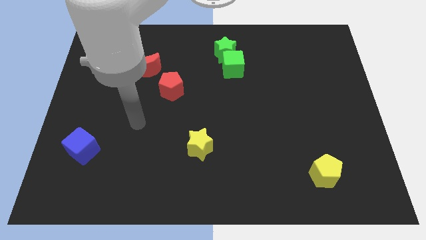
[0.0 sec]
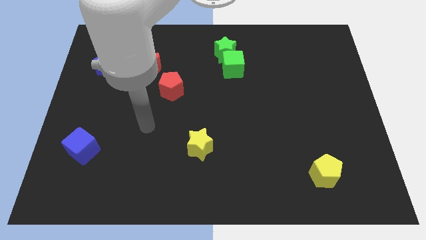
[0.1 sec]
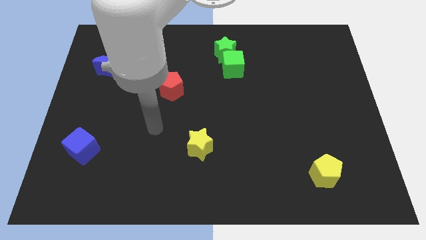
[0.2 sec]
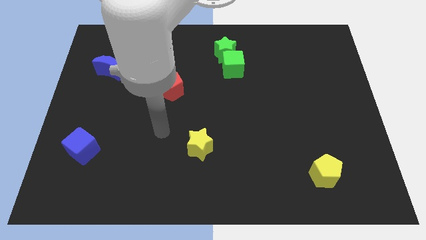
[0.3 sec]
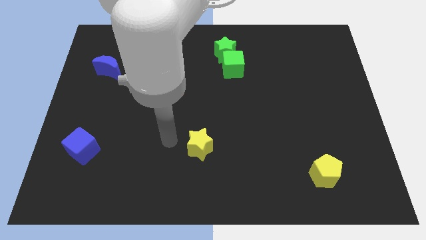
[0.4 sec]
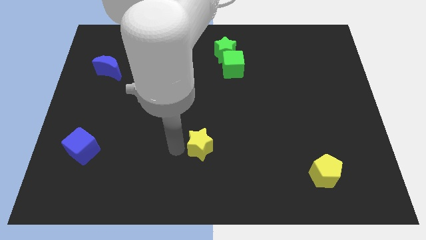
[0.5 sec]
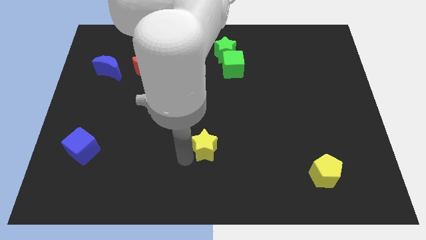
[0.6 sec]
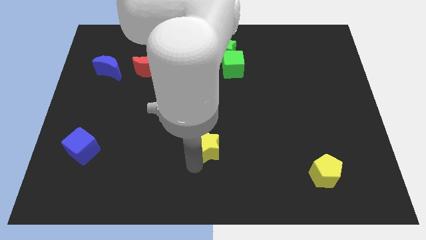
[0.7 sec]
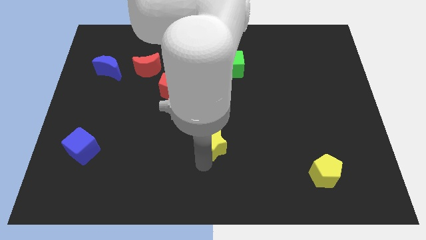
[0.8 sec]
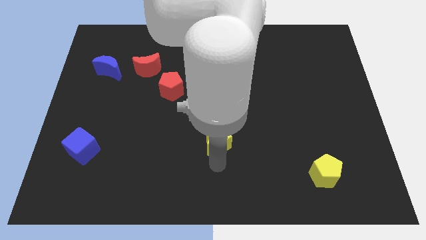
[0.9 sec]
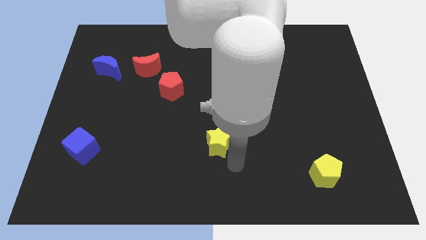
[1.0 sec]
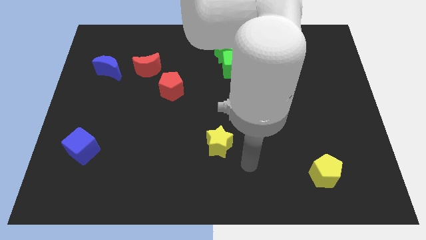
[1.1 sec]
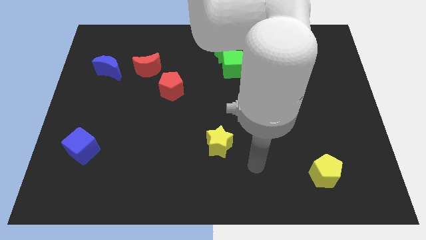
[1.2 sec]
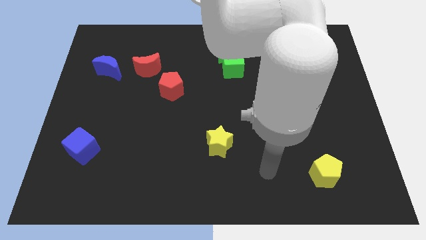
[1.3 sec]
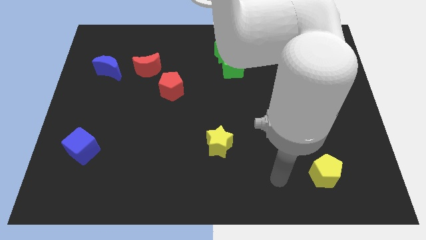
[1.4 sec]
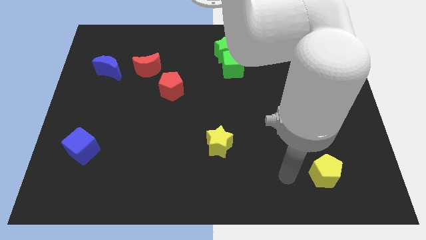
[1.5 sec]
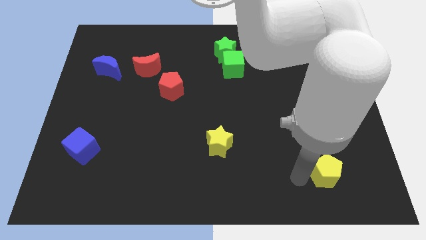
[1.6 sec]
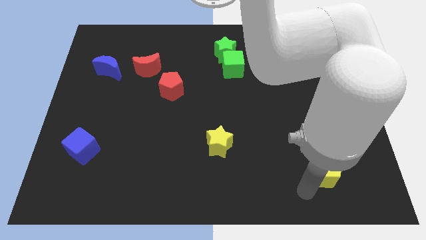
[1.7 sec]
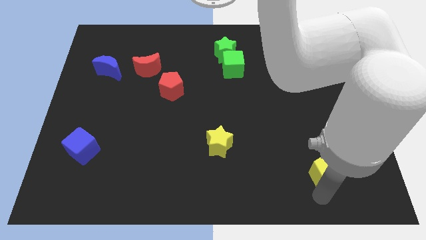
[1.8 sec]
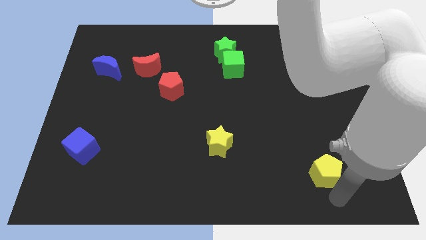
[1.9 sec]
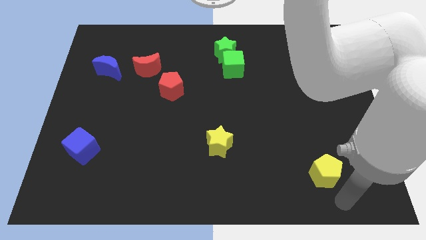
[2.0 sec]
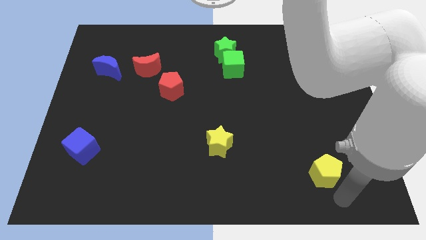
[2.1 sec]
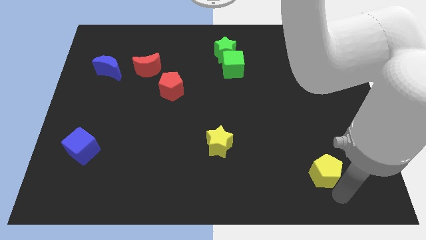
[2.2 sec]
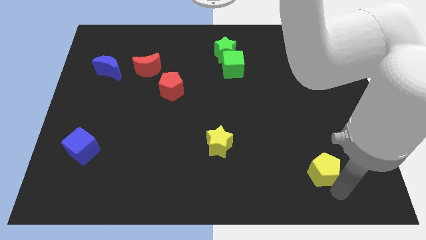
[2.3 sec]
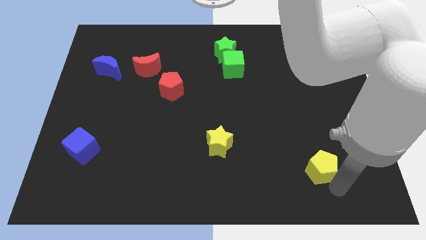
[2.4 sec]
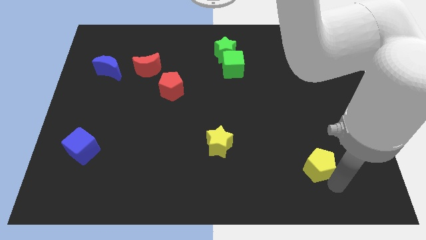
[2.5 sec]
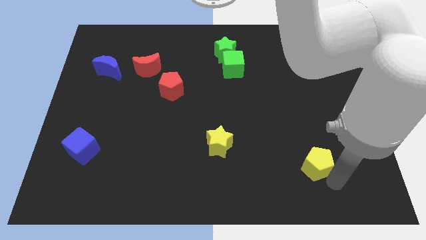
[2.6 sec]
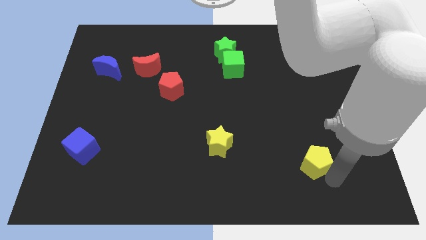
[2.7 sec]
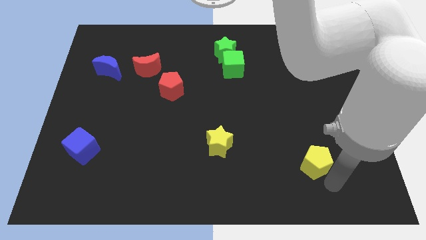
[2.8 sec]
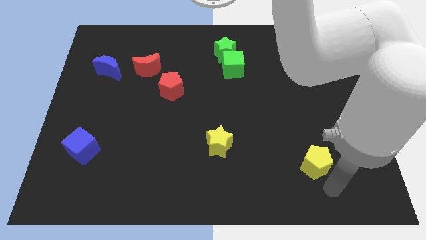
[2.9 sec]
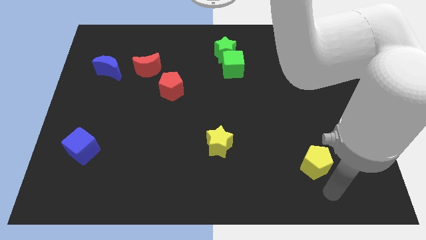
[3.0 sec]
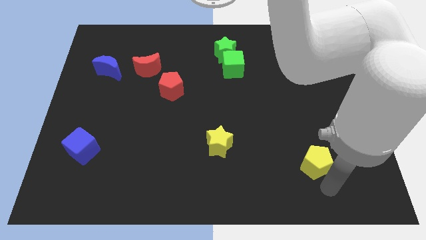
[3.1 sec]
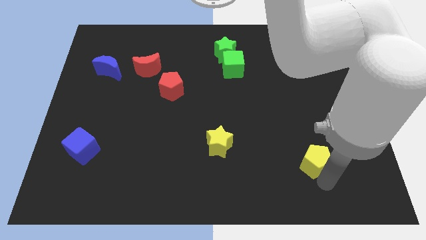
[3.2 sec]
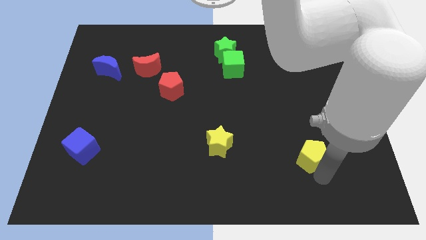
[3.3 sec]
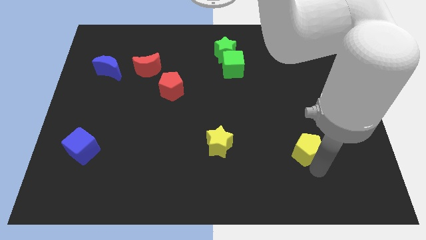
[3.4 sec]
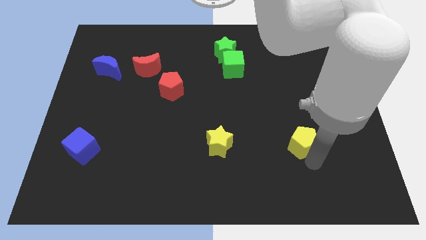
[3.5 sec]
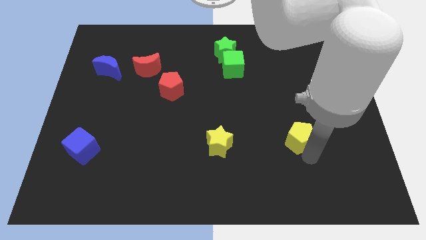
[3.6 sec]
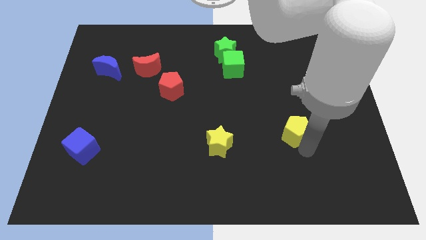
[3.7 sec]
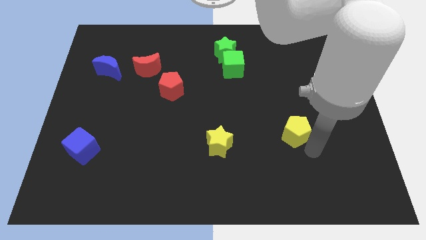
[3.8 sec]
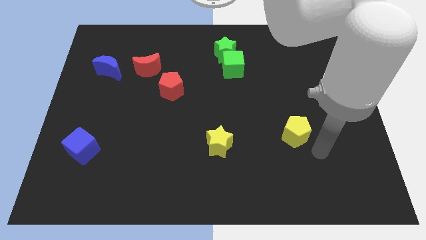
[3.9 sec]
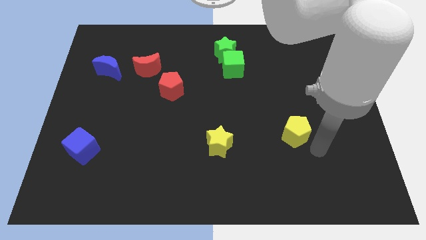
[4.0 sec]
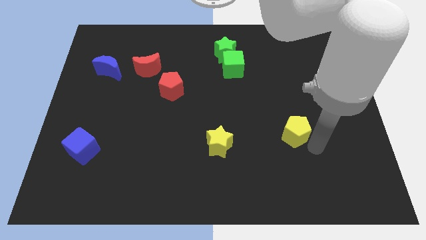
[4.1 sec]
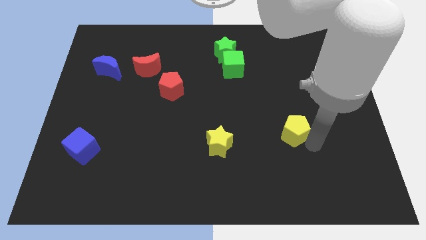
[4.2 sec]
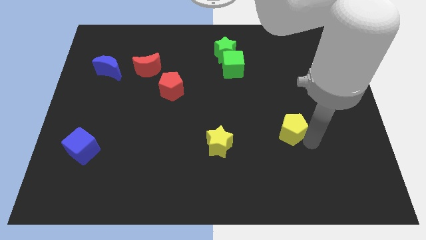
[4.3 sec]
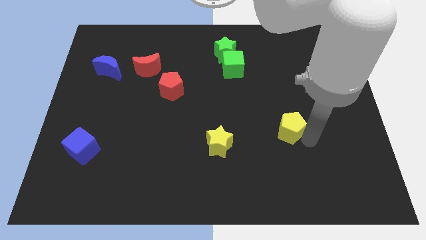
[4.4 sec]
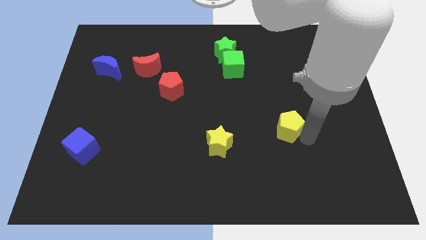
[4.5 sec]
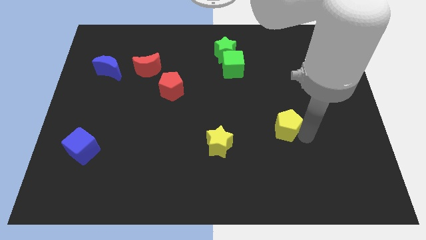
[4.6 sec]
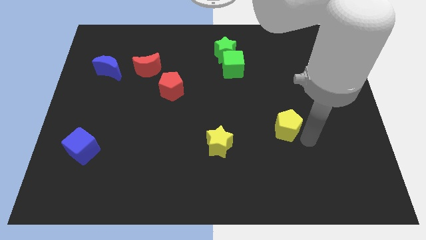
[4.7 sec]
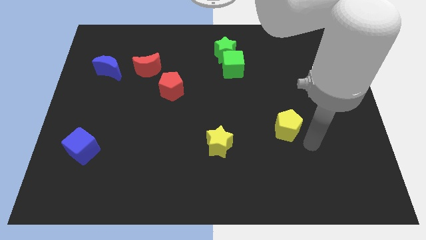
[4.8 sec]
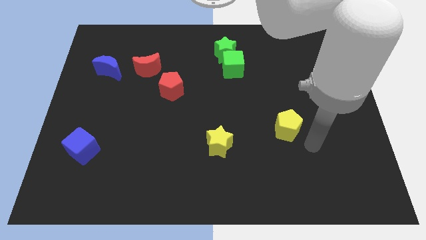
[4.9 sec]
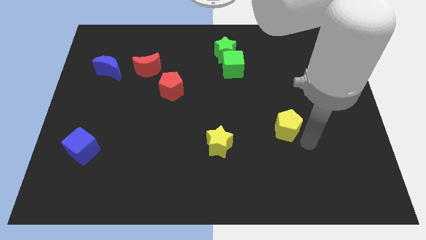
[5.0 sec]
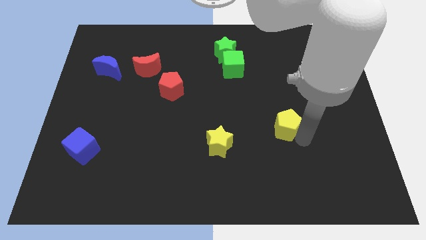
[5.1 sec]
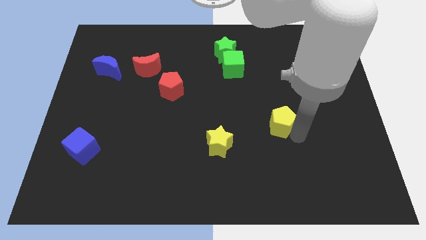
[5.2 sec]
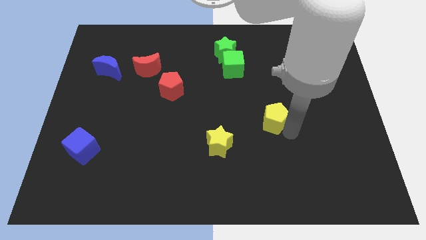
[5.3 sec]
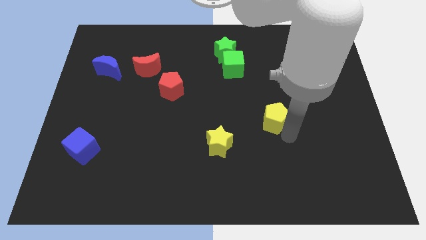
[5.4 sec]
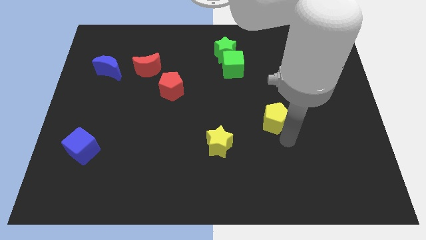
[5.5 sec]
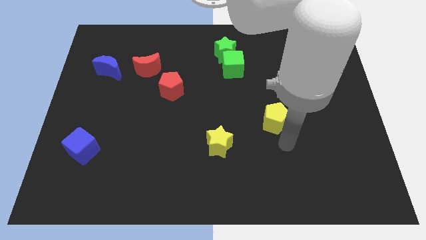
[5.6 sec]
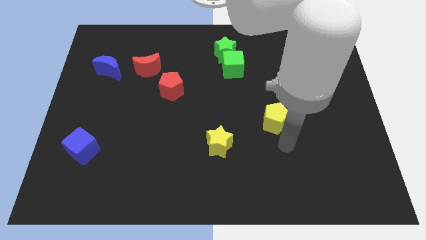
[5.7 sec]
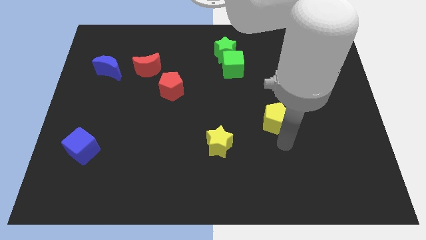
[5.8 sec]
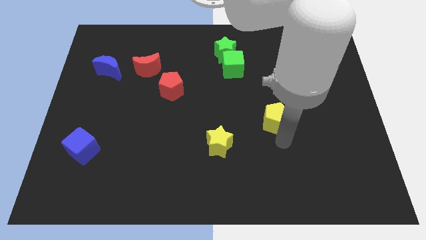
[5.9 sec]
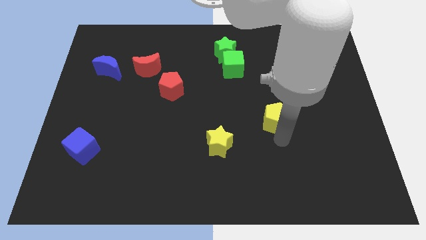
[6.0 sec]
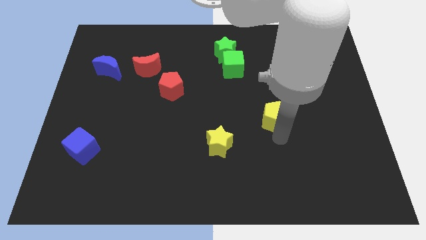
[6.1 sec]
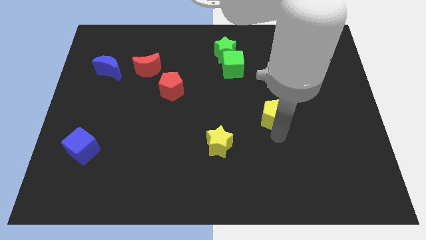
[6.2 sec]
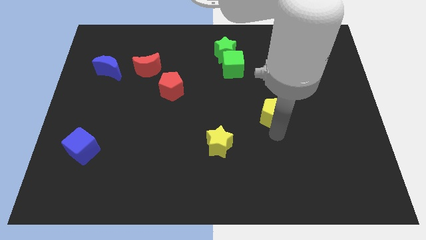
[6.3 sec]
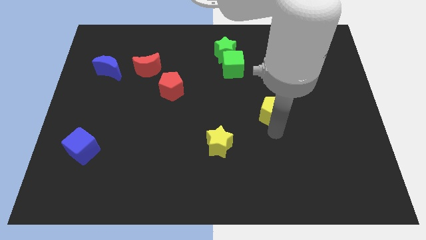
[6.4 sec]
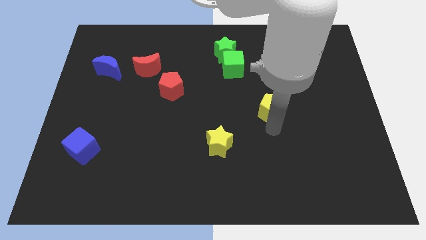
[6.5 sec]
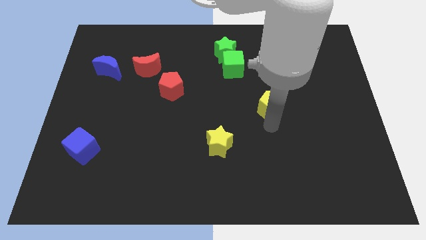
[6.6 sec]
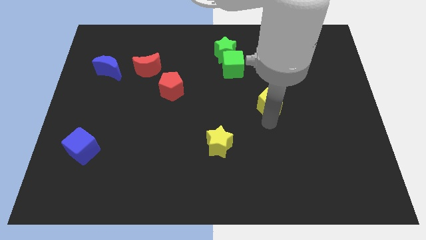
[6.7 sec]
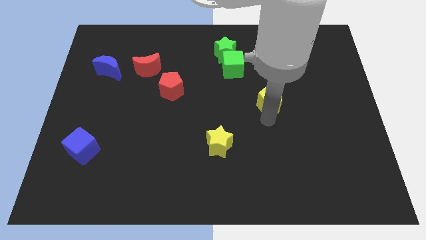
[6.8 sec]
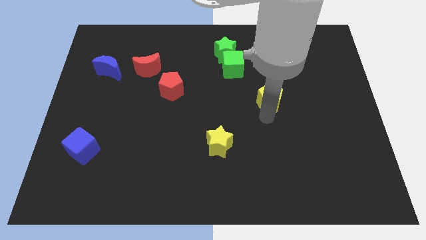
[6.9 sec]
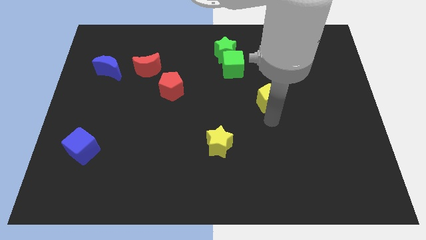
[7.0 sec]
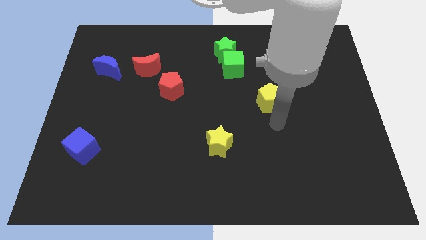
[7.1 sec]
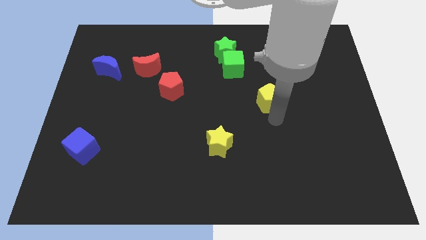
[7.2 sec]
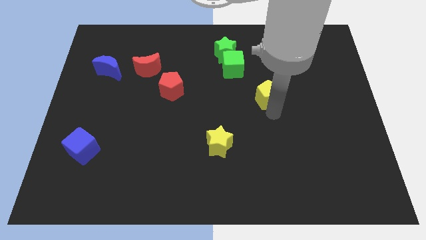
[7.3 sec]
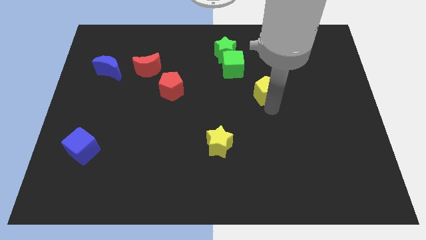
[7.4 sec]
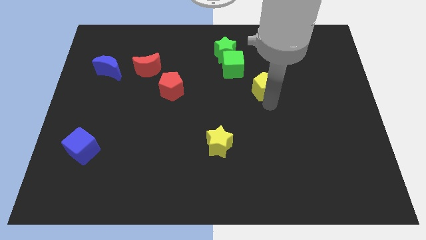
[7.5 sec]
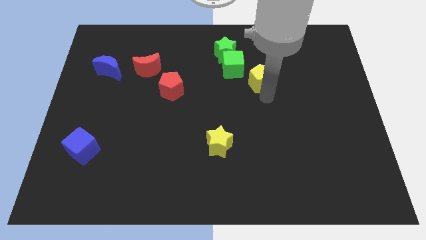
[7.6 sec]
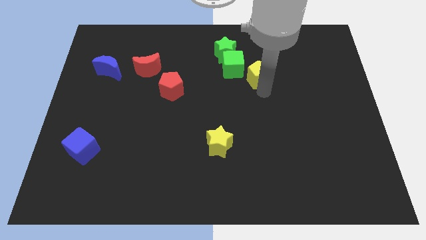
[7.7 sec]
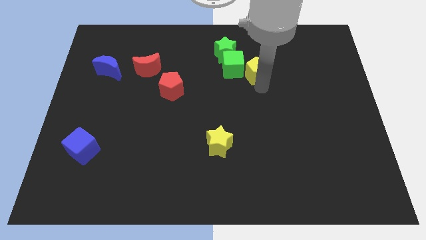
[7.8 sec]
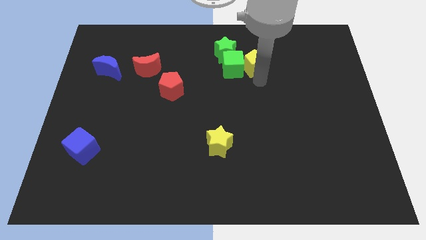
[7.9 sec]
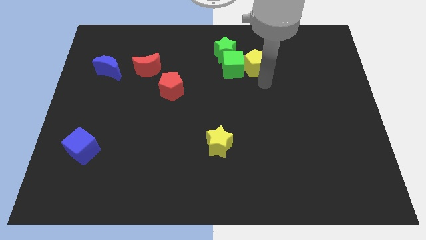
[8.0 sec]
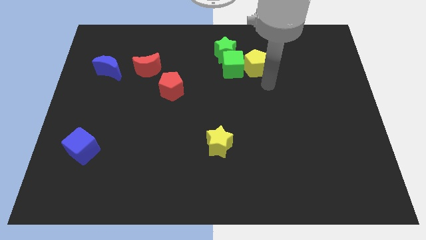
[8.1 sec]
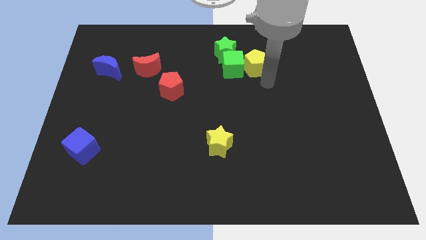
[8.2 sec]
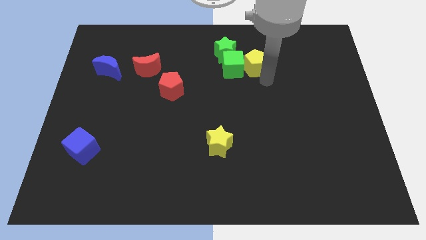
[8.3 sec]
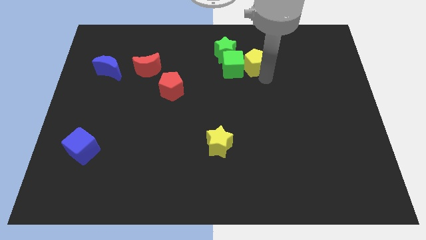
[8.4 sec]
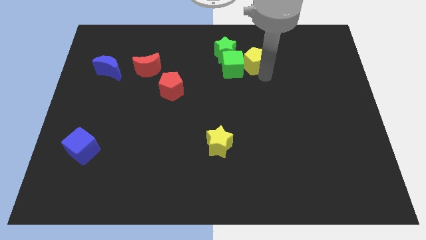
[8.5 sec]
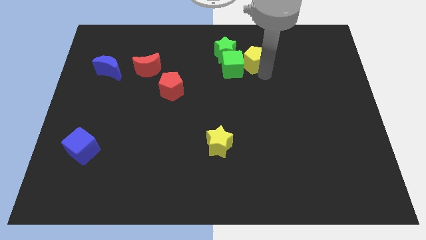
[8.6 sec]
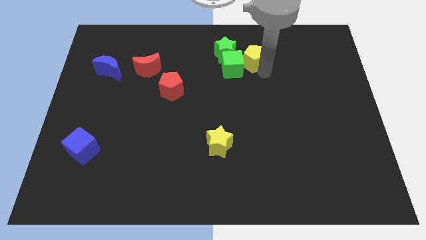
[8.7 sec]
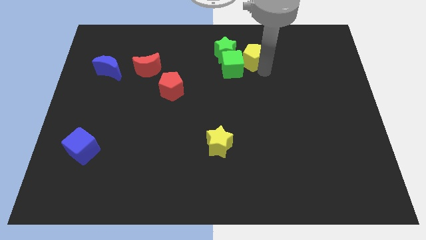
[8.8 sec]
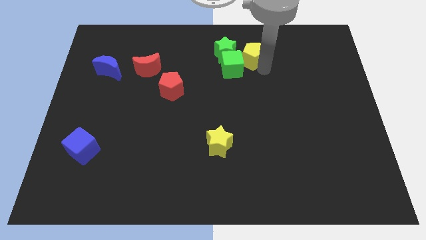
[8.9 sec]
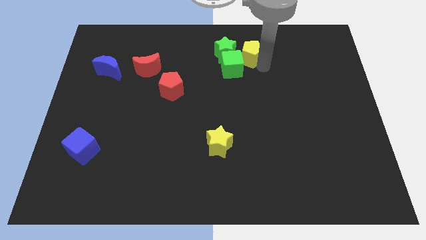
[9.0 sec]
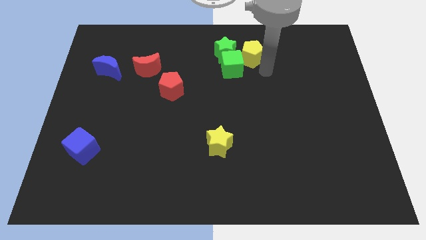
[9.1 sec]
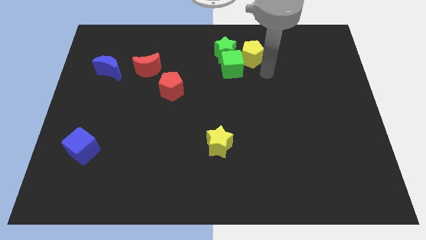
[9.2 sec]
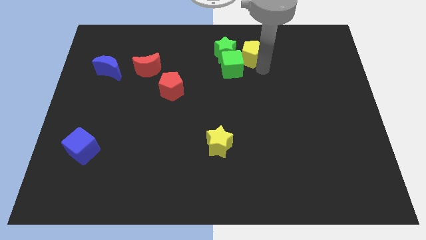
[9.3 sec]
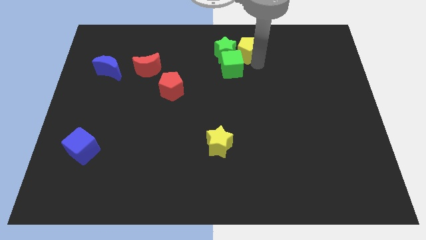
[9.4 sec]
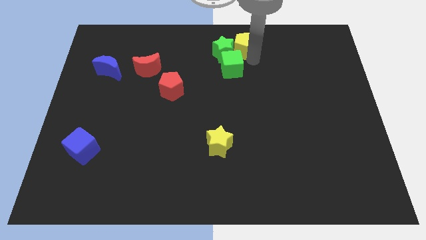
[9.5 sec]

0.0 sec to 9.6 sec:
slide the yellow pentagon to the top side
